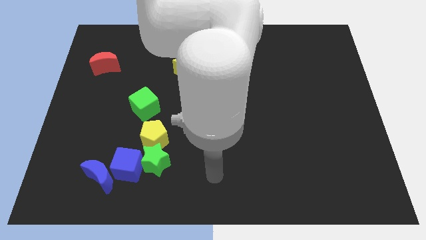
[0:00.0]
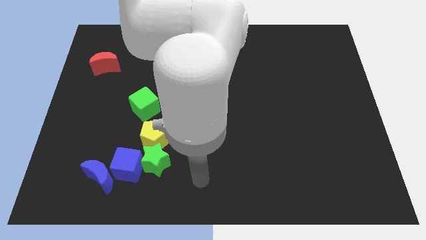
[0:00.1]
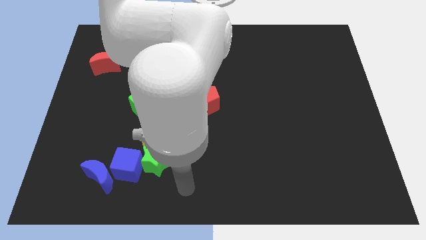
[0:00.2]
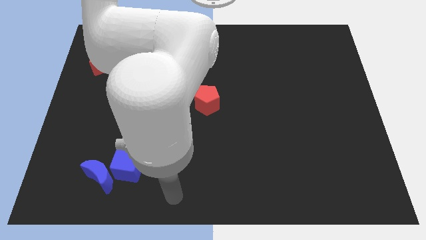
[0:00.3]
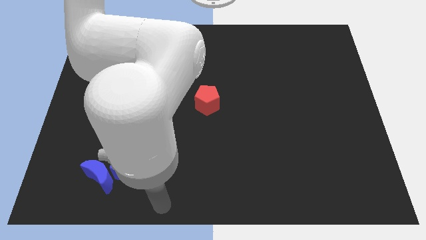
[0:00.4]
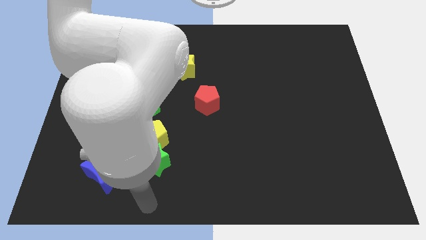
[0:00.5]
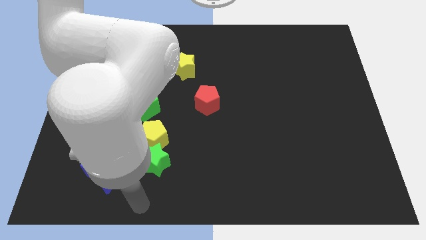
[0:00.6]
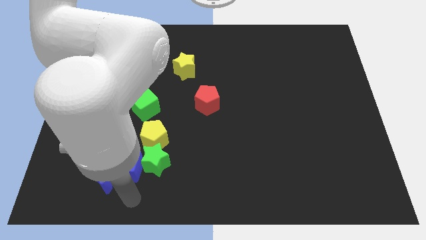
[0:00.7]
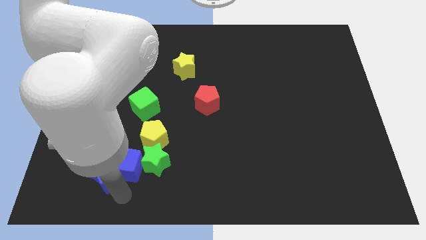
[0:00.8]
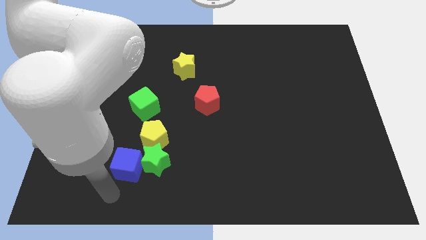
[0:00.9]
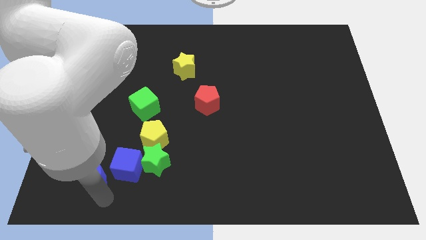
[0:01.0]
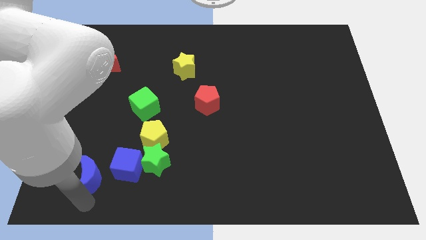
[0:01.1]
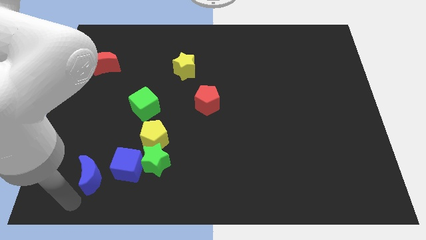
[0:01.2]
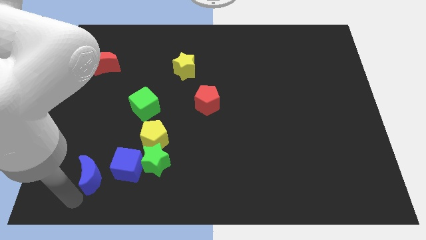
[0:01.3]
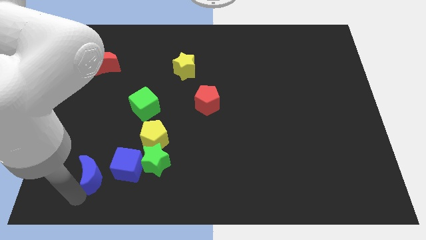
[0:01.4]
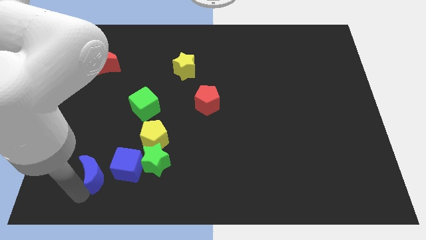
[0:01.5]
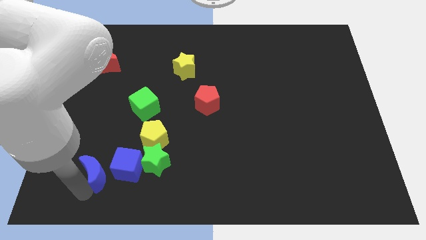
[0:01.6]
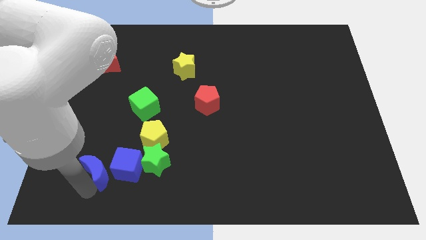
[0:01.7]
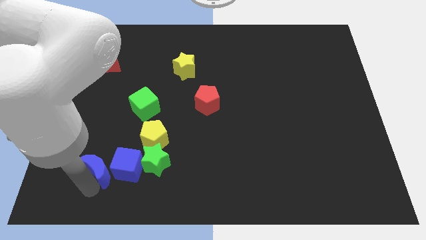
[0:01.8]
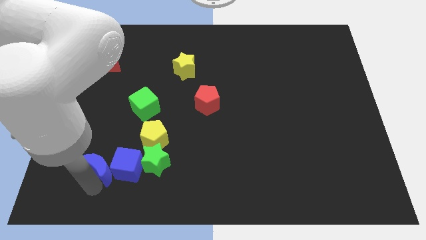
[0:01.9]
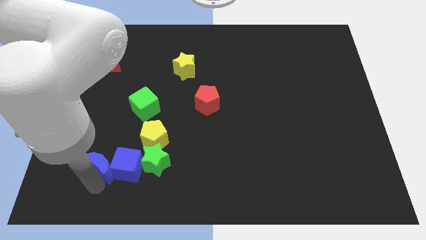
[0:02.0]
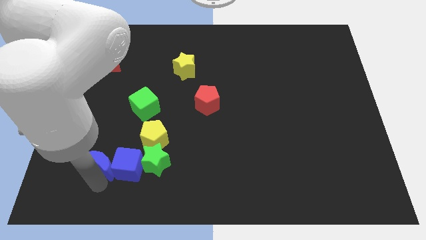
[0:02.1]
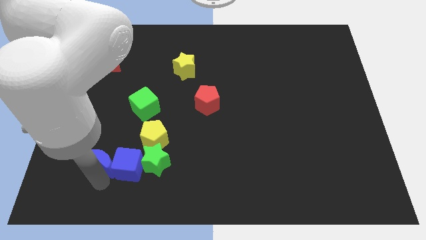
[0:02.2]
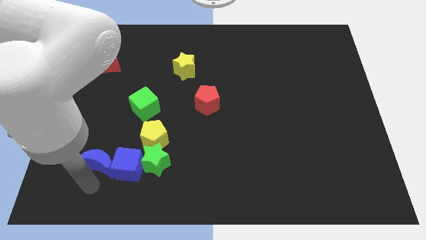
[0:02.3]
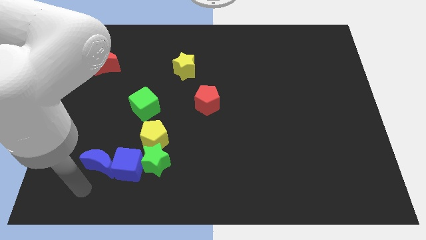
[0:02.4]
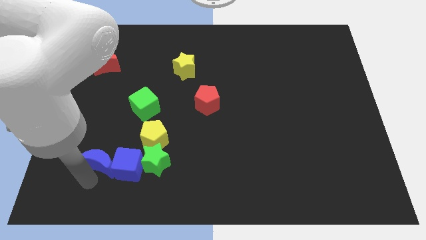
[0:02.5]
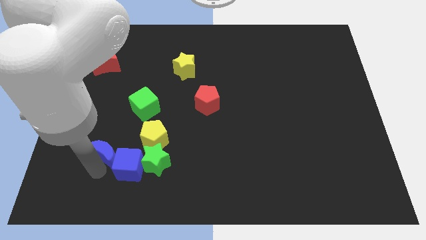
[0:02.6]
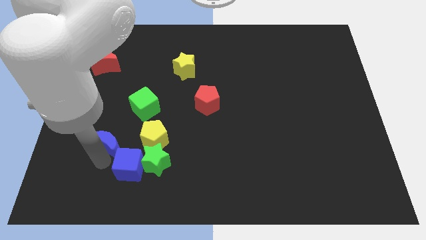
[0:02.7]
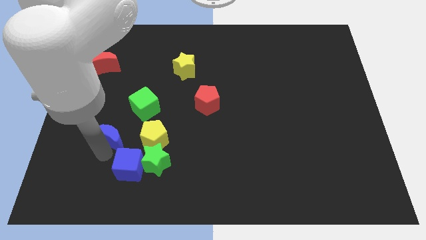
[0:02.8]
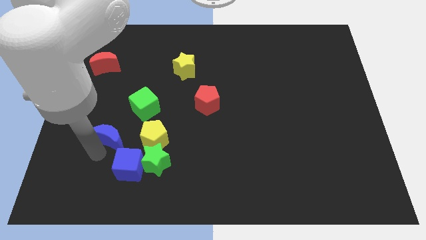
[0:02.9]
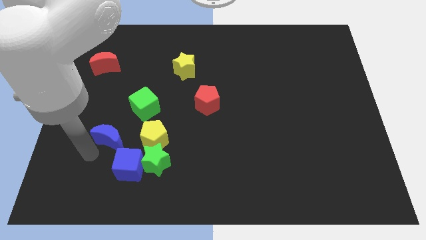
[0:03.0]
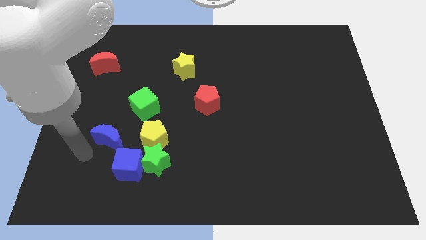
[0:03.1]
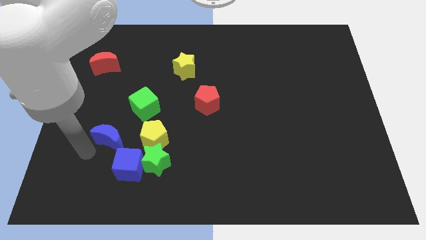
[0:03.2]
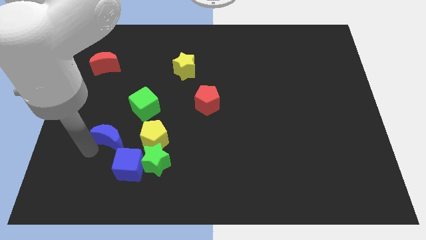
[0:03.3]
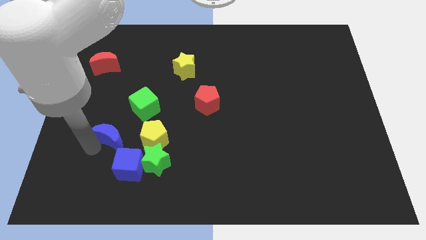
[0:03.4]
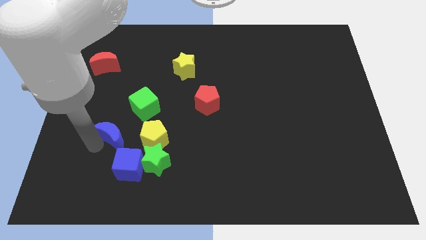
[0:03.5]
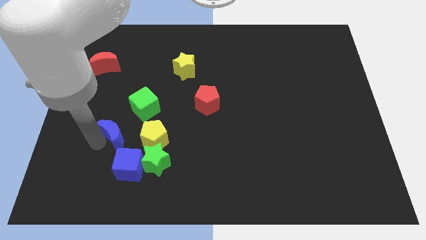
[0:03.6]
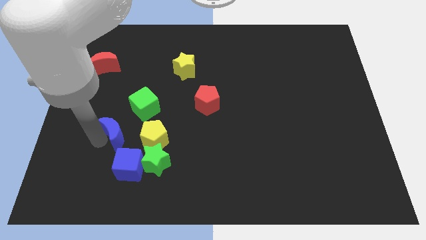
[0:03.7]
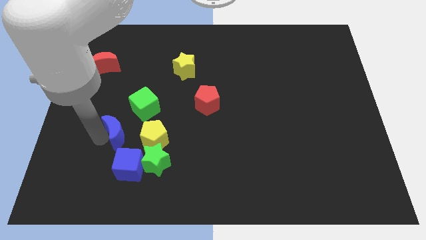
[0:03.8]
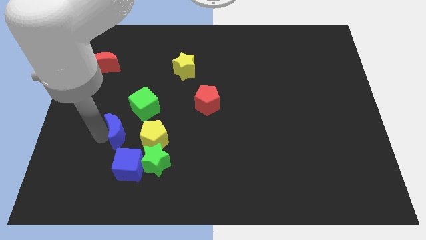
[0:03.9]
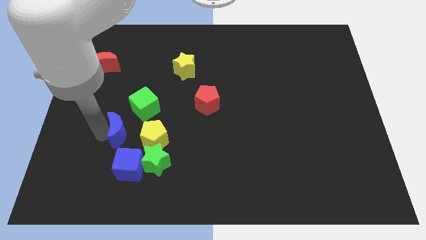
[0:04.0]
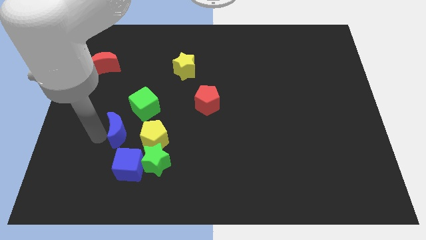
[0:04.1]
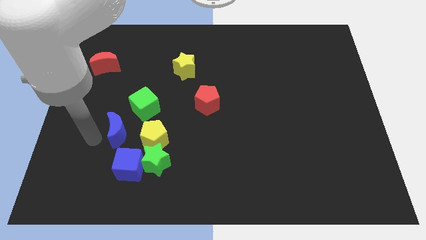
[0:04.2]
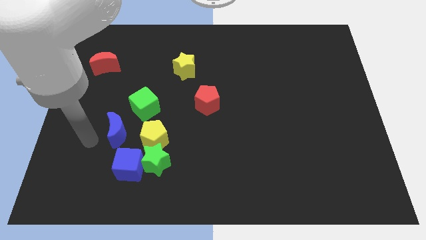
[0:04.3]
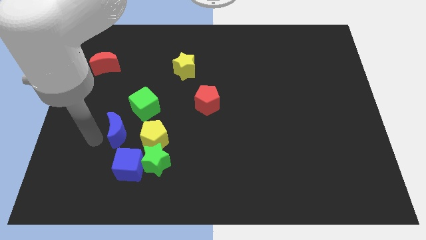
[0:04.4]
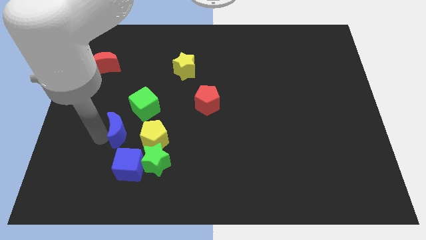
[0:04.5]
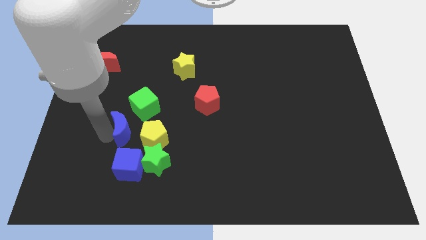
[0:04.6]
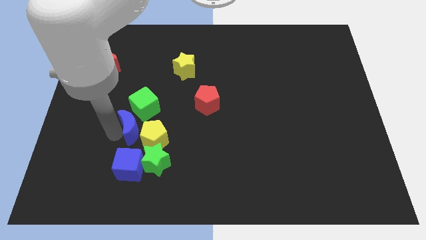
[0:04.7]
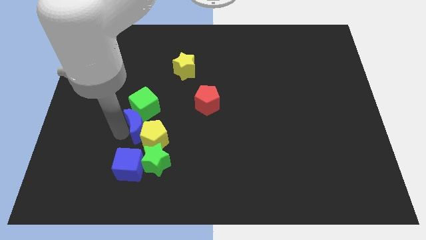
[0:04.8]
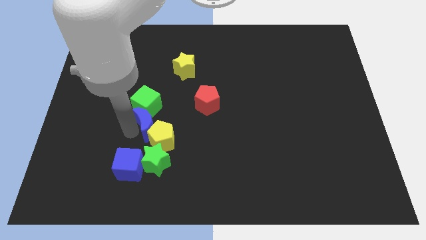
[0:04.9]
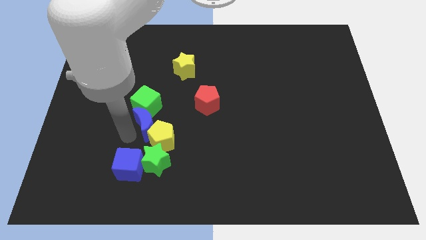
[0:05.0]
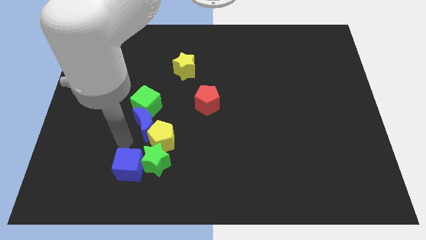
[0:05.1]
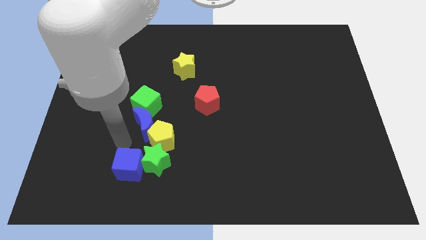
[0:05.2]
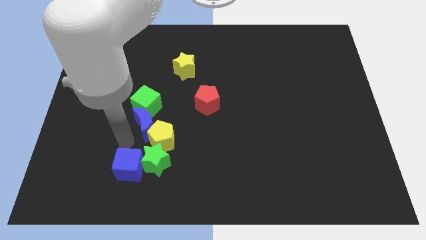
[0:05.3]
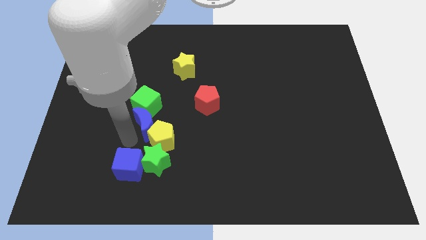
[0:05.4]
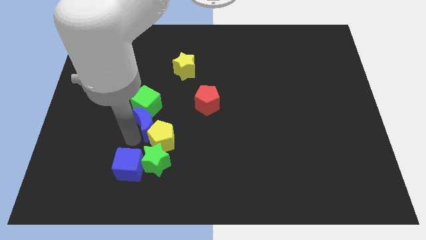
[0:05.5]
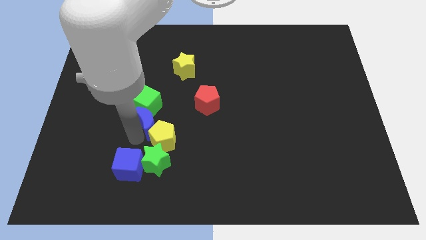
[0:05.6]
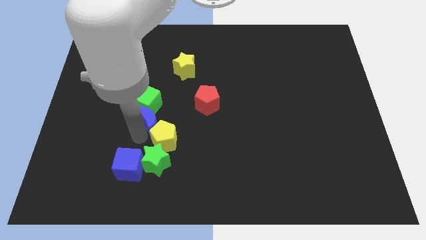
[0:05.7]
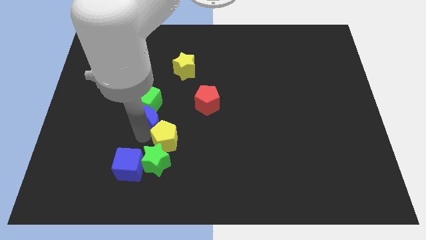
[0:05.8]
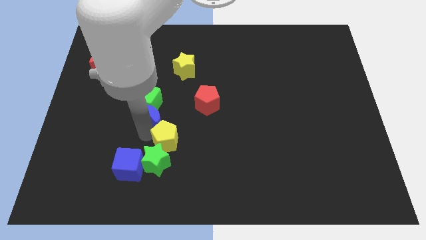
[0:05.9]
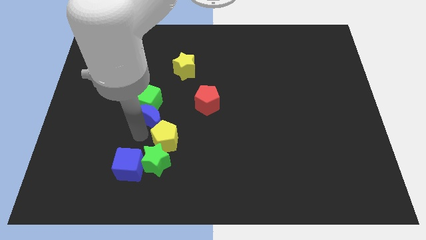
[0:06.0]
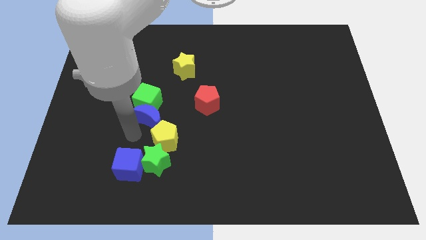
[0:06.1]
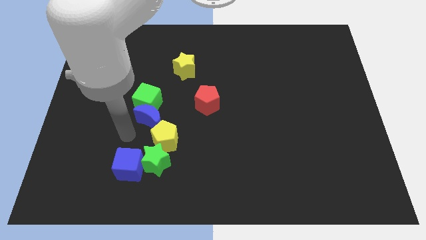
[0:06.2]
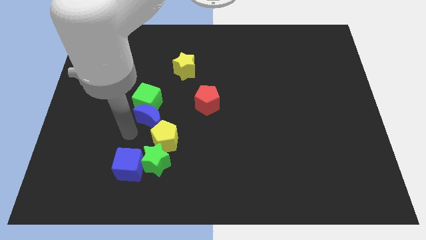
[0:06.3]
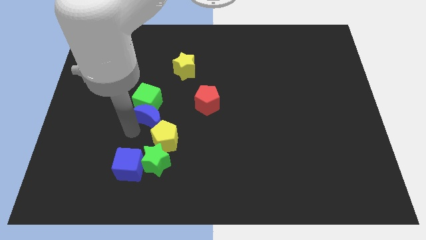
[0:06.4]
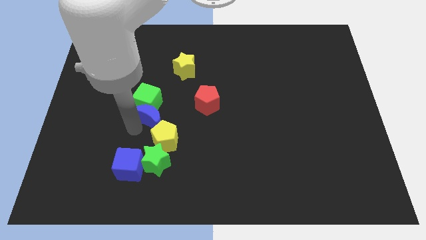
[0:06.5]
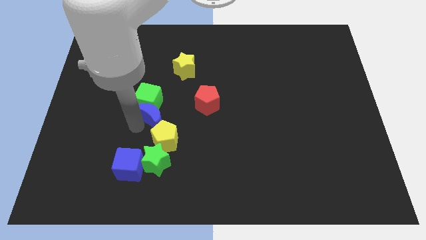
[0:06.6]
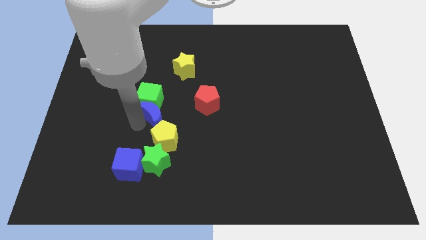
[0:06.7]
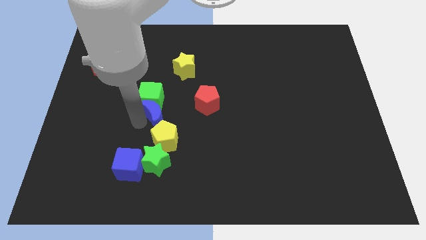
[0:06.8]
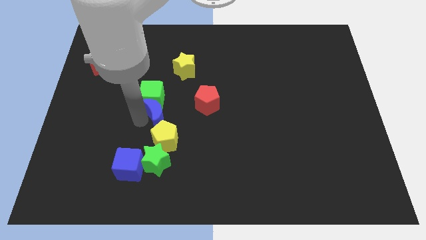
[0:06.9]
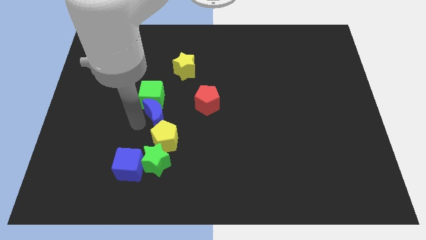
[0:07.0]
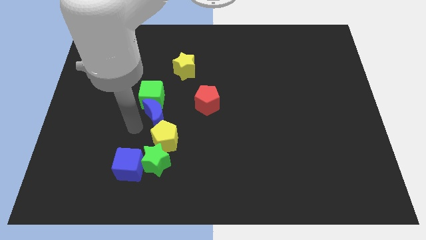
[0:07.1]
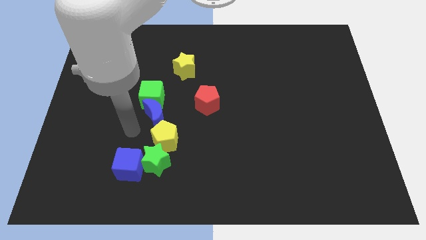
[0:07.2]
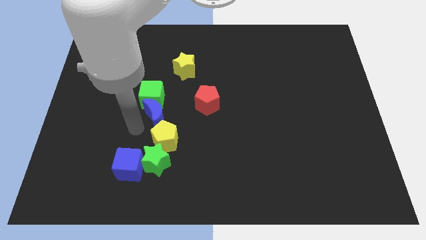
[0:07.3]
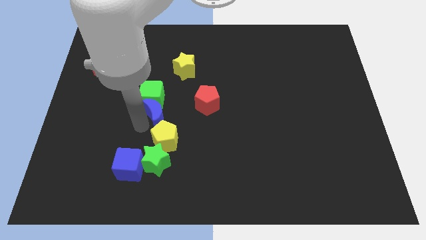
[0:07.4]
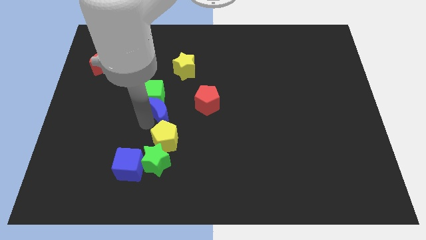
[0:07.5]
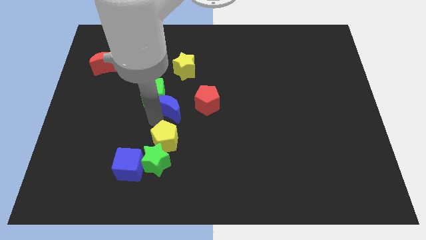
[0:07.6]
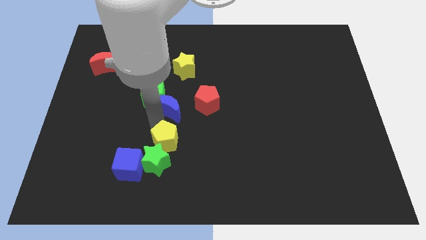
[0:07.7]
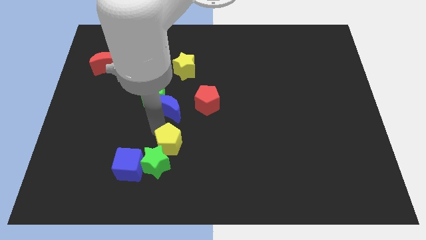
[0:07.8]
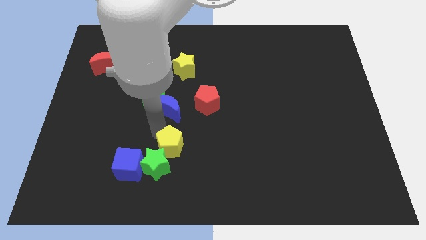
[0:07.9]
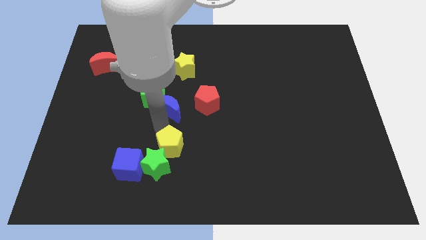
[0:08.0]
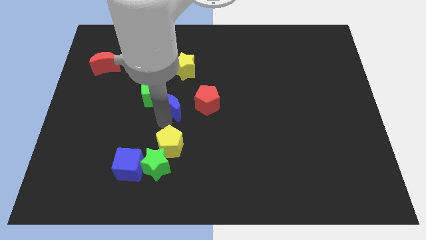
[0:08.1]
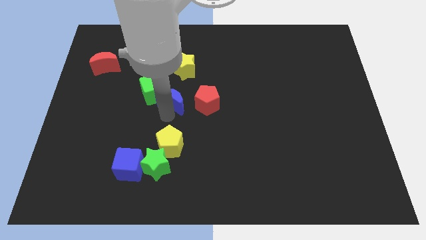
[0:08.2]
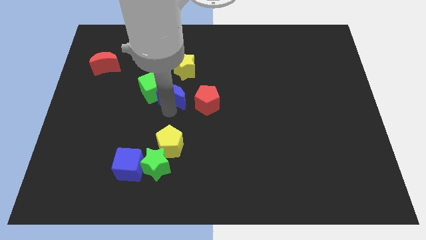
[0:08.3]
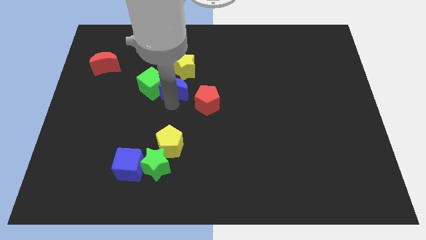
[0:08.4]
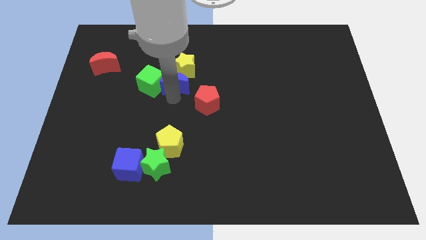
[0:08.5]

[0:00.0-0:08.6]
slide the blue moon next to the yellow star
